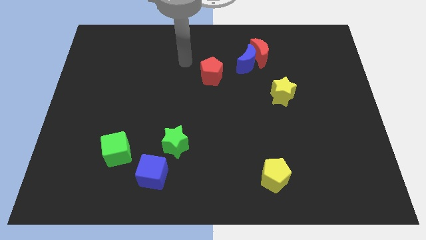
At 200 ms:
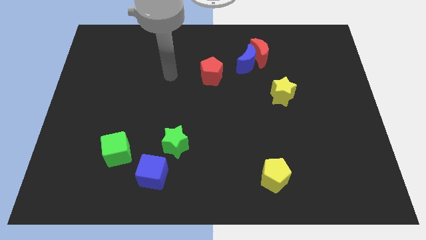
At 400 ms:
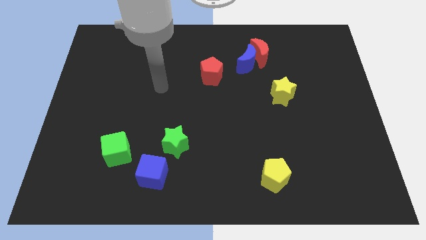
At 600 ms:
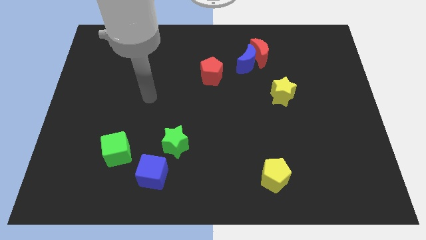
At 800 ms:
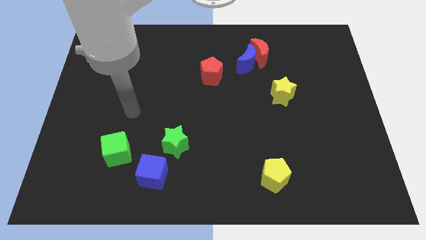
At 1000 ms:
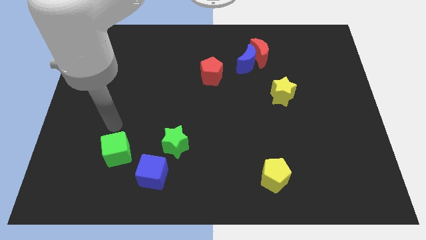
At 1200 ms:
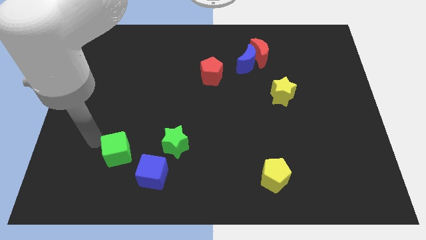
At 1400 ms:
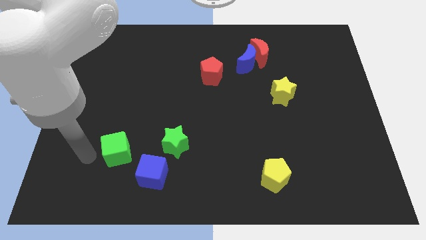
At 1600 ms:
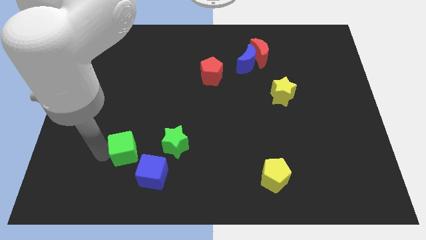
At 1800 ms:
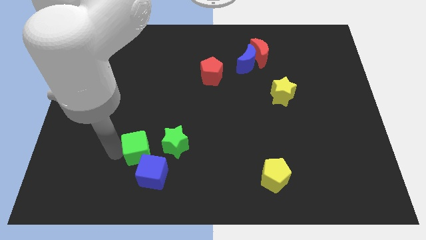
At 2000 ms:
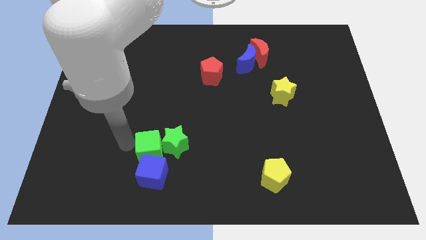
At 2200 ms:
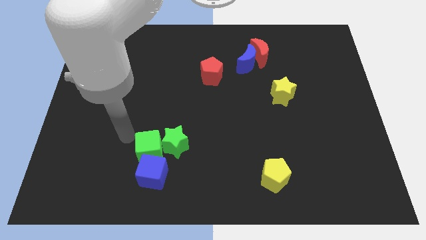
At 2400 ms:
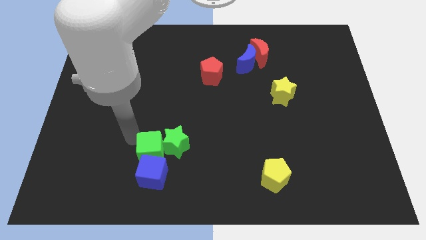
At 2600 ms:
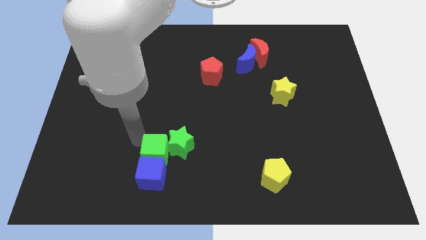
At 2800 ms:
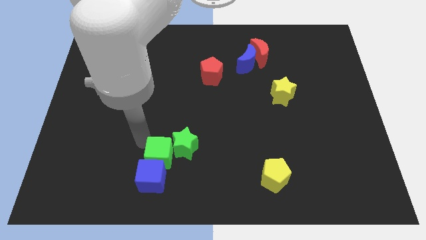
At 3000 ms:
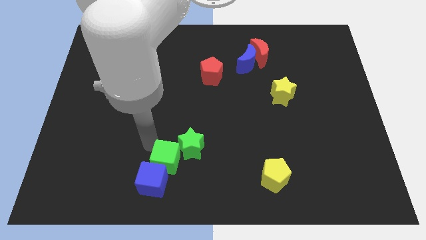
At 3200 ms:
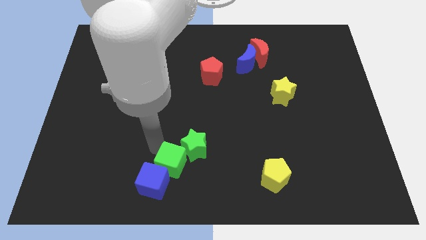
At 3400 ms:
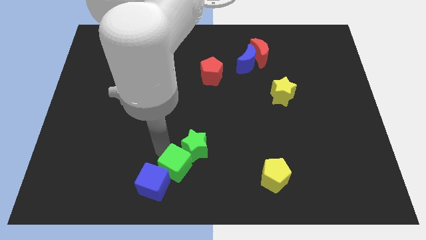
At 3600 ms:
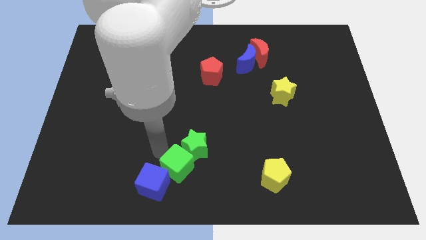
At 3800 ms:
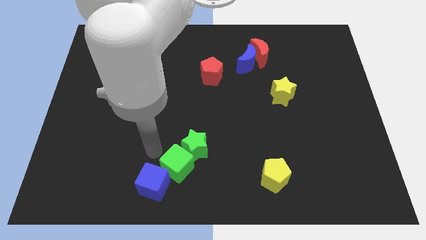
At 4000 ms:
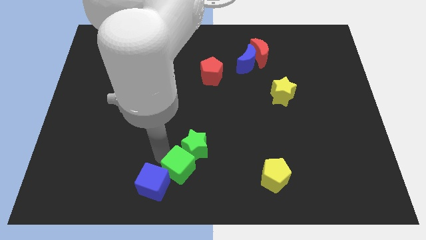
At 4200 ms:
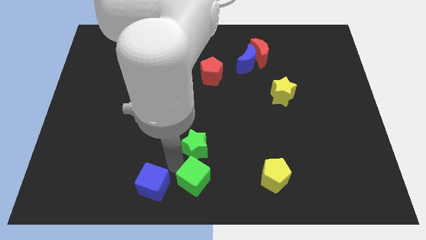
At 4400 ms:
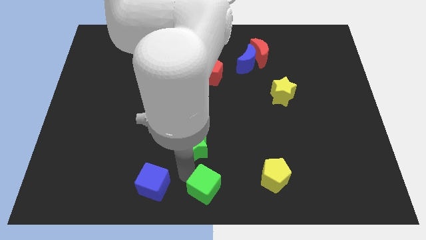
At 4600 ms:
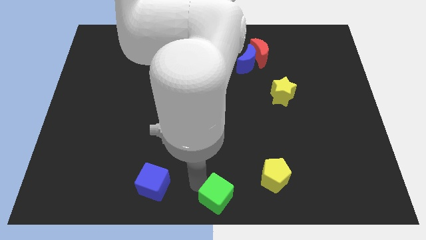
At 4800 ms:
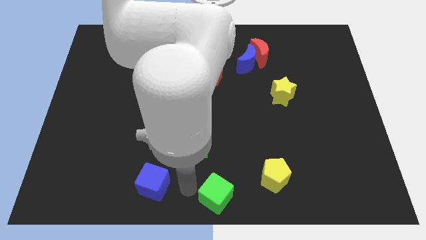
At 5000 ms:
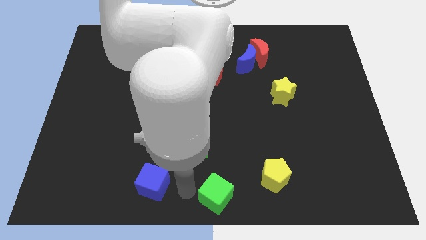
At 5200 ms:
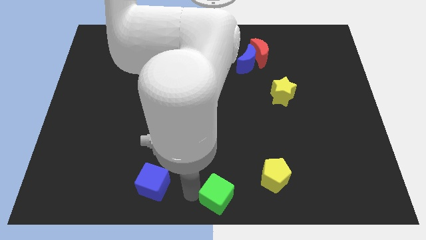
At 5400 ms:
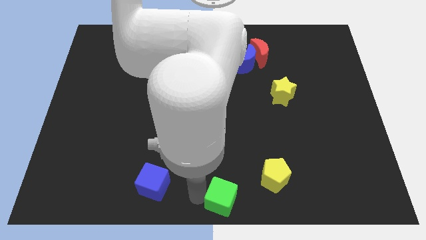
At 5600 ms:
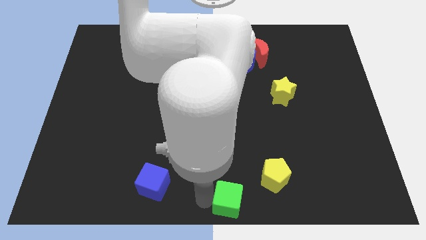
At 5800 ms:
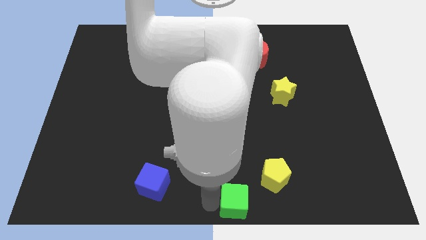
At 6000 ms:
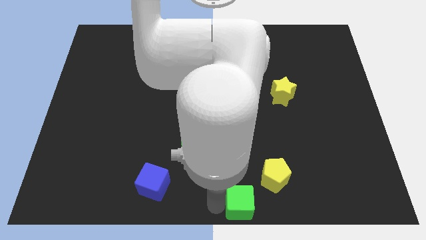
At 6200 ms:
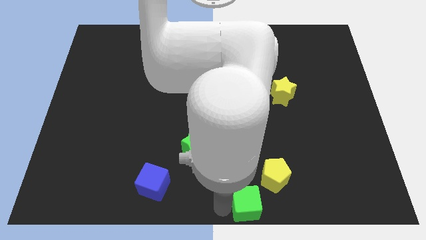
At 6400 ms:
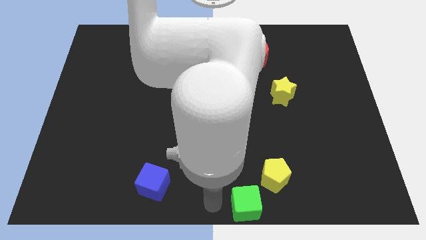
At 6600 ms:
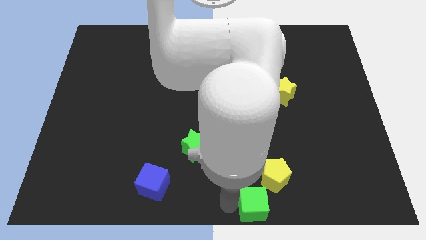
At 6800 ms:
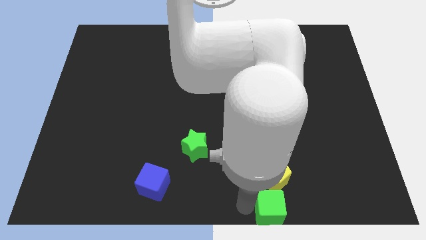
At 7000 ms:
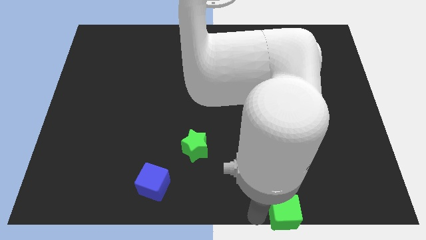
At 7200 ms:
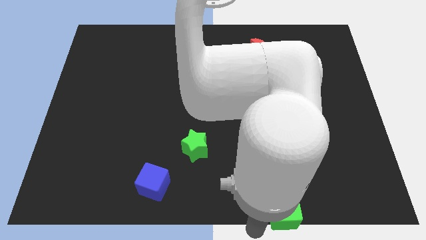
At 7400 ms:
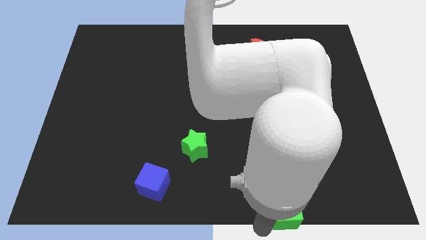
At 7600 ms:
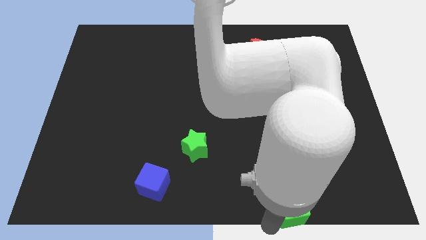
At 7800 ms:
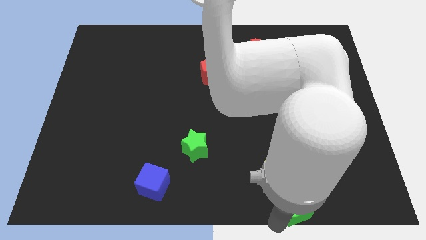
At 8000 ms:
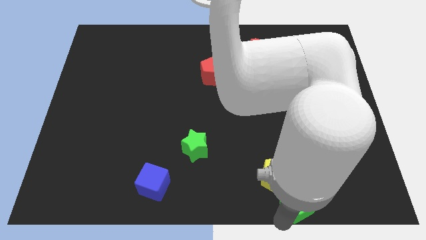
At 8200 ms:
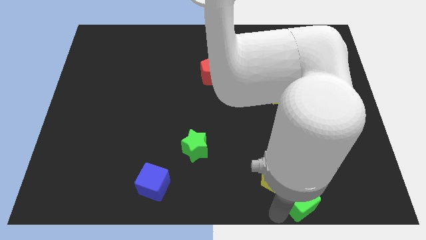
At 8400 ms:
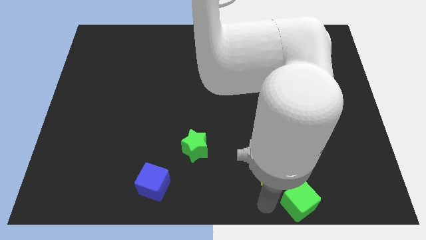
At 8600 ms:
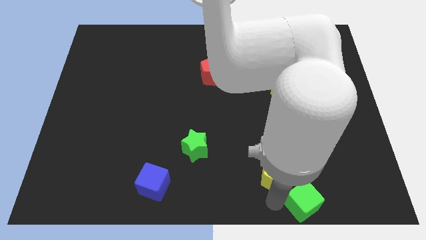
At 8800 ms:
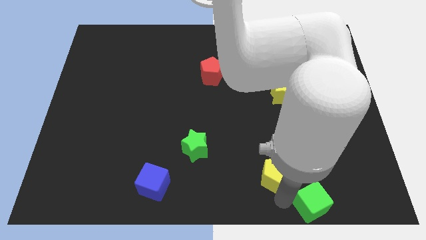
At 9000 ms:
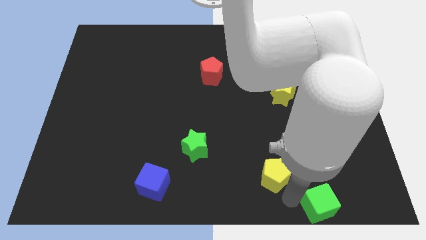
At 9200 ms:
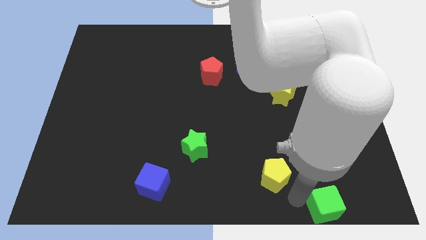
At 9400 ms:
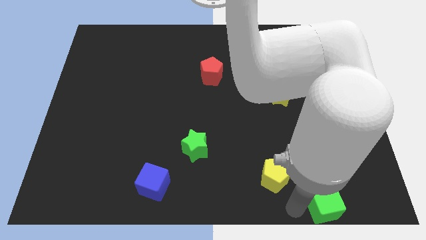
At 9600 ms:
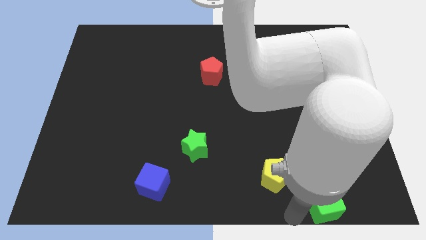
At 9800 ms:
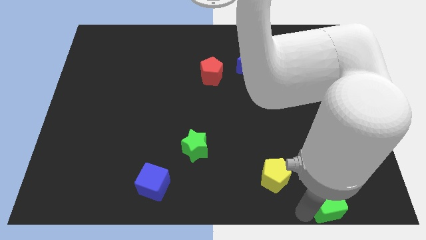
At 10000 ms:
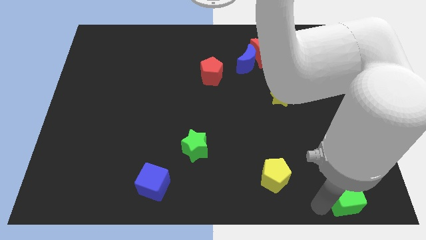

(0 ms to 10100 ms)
put the green cube to the bottom right of the board

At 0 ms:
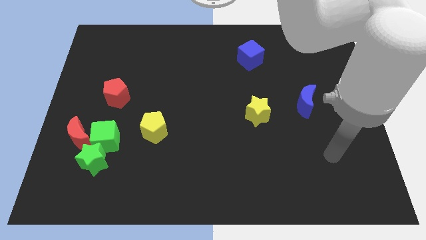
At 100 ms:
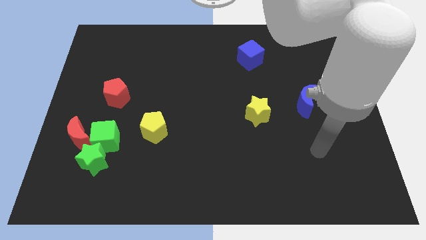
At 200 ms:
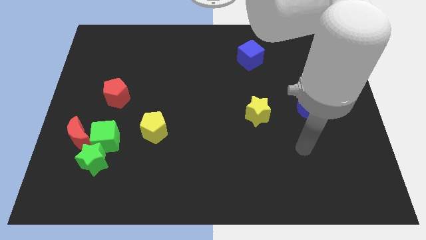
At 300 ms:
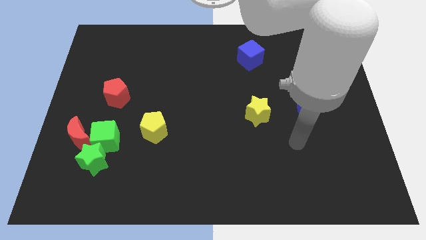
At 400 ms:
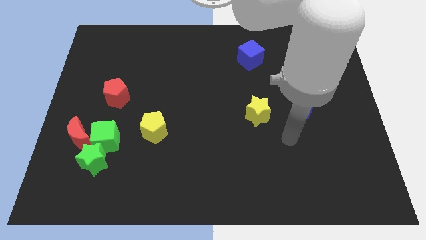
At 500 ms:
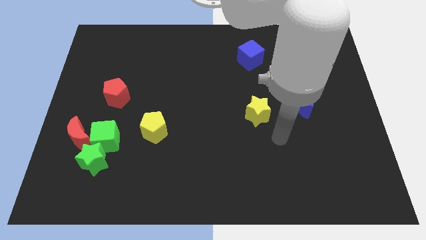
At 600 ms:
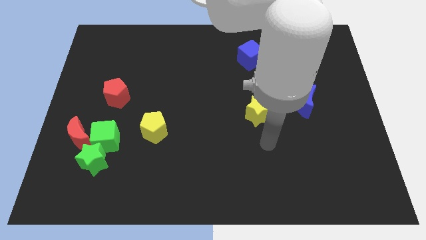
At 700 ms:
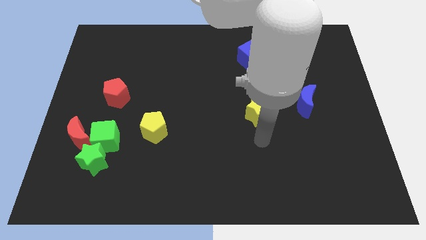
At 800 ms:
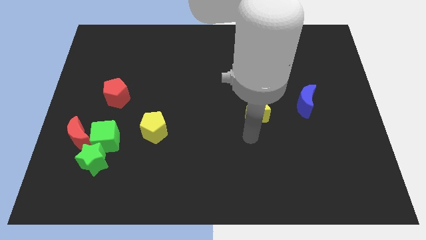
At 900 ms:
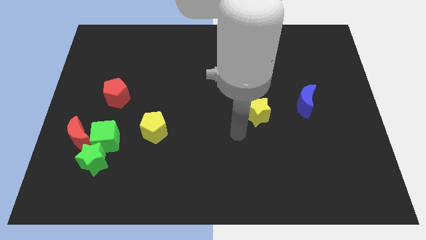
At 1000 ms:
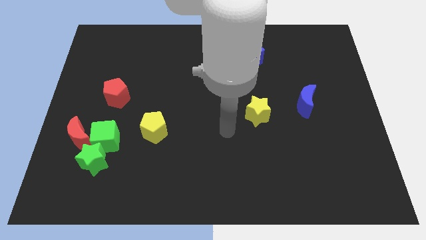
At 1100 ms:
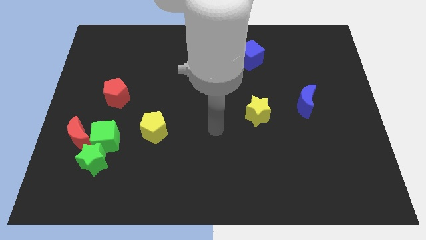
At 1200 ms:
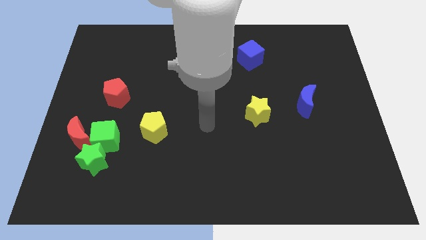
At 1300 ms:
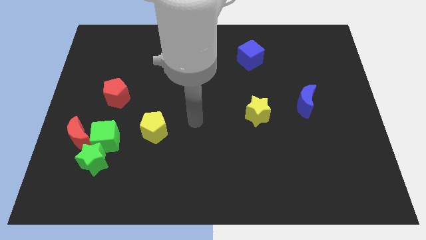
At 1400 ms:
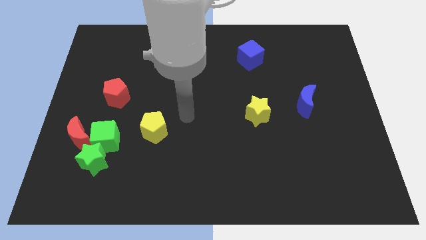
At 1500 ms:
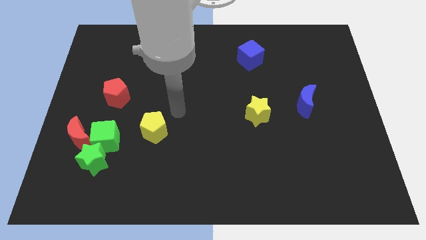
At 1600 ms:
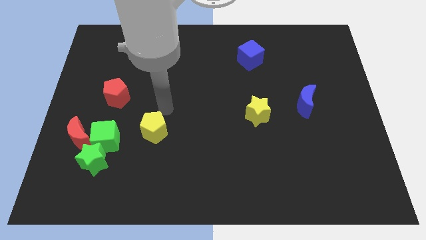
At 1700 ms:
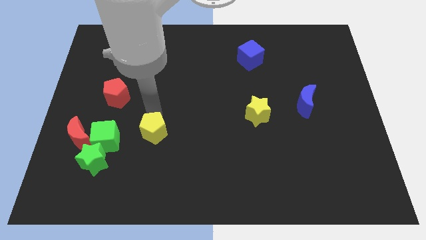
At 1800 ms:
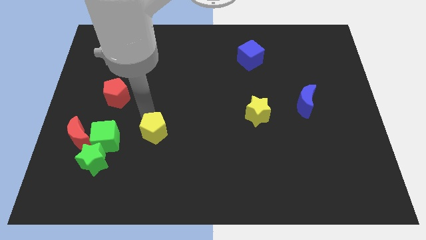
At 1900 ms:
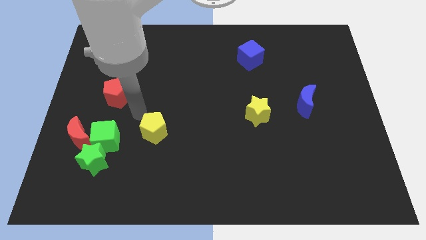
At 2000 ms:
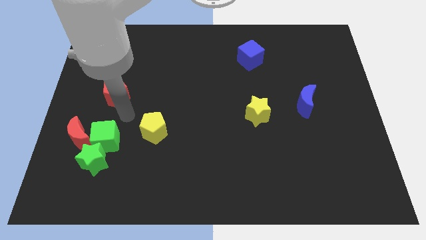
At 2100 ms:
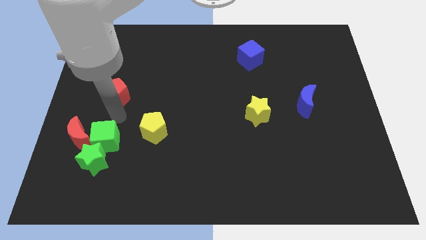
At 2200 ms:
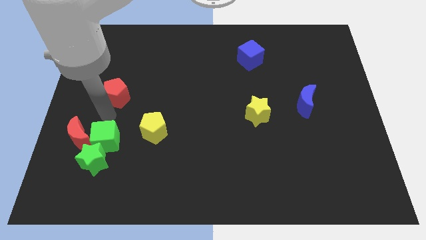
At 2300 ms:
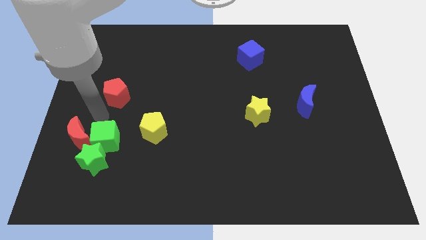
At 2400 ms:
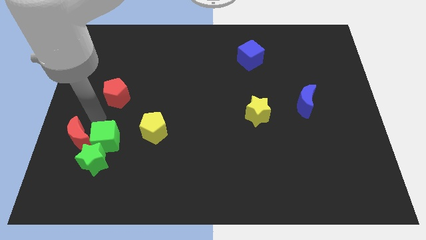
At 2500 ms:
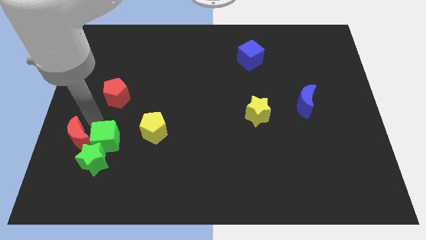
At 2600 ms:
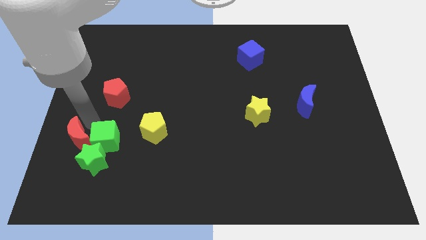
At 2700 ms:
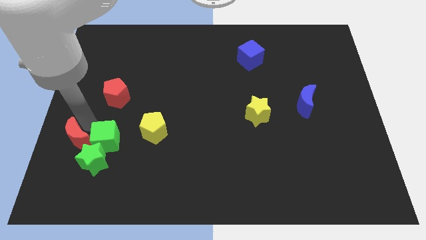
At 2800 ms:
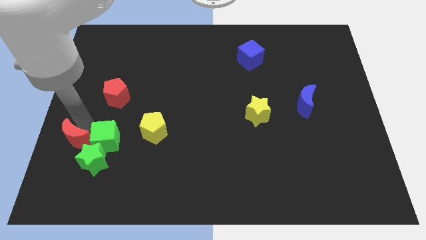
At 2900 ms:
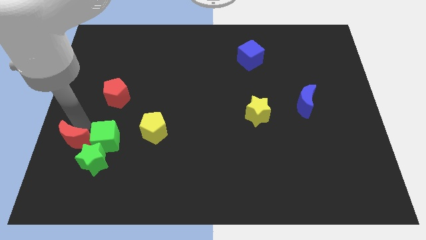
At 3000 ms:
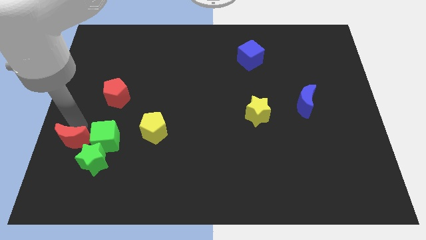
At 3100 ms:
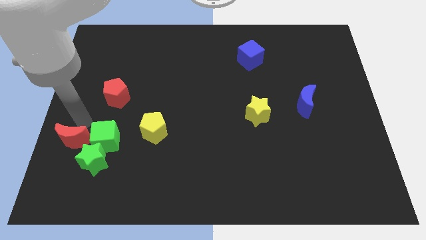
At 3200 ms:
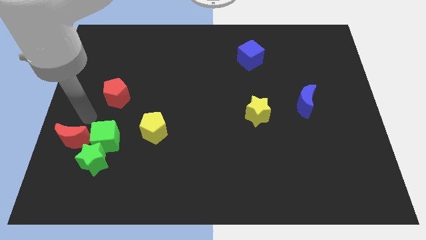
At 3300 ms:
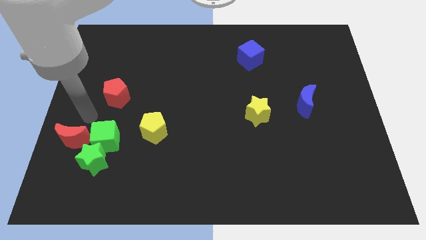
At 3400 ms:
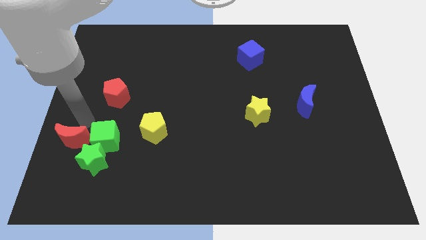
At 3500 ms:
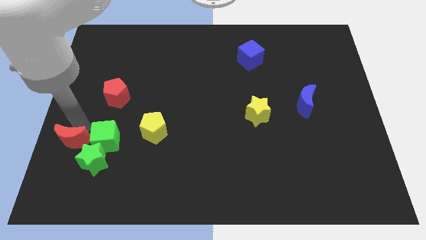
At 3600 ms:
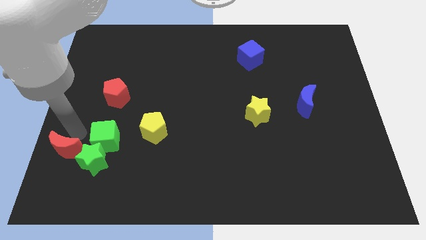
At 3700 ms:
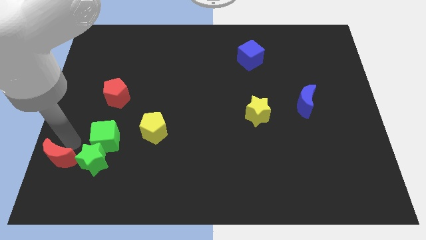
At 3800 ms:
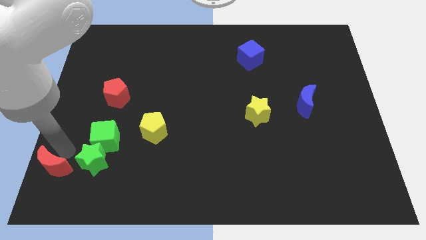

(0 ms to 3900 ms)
slide the red moon to the lower left corner
